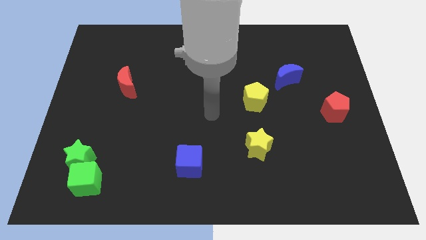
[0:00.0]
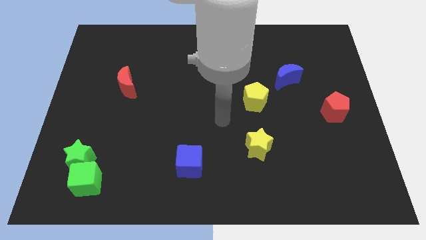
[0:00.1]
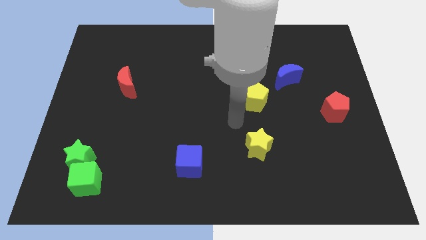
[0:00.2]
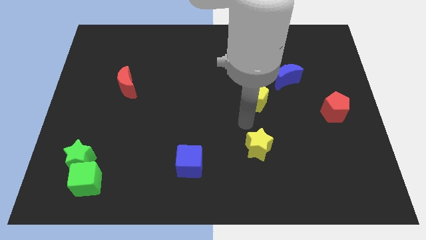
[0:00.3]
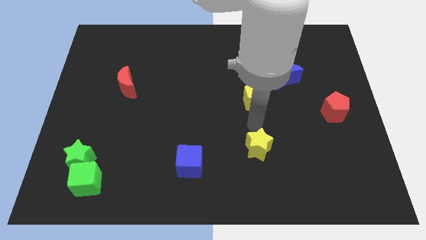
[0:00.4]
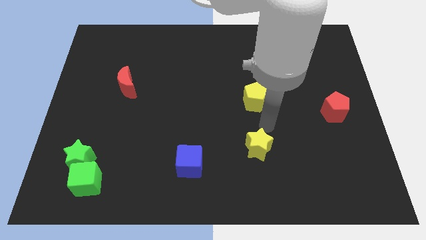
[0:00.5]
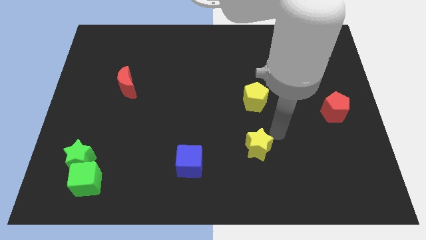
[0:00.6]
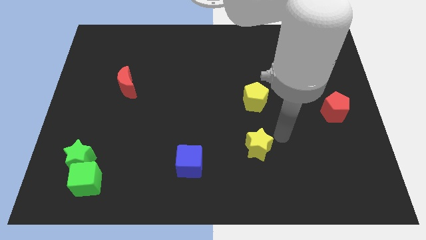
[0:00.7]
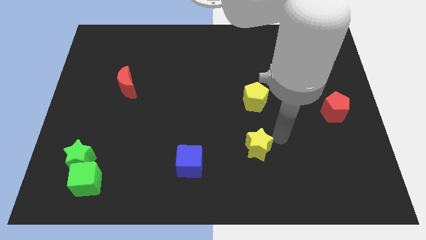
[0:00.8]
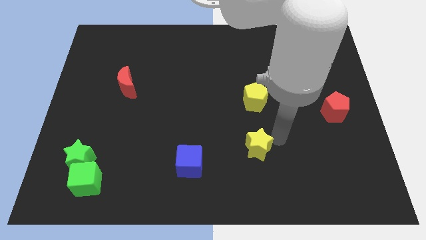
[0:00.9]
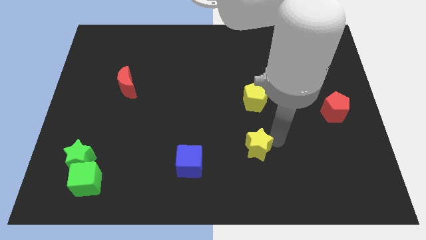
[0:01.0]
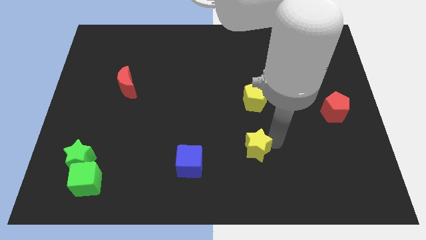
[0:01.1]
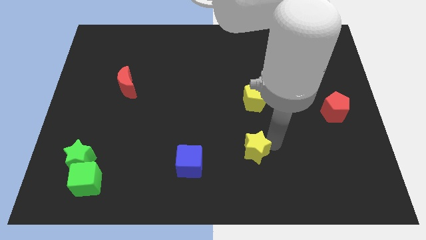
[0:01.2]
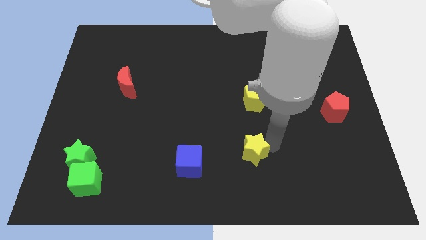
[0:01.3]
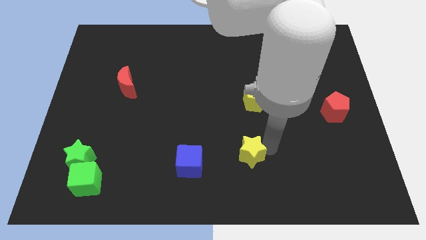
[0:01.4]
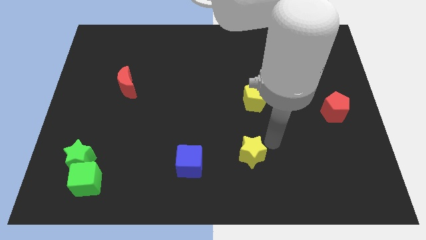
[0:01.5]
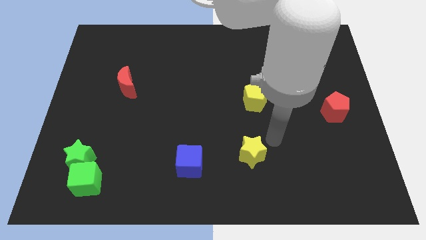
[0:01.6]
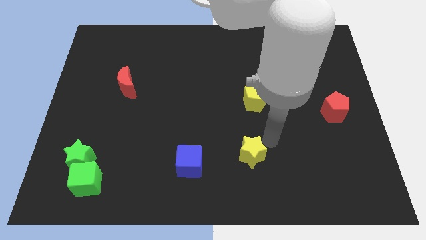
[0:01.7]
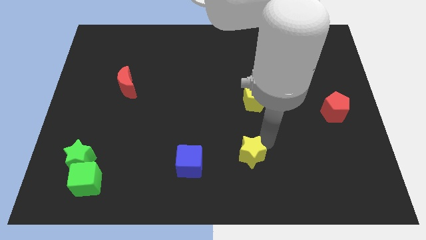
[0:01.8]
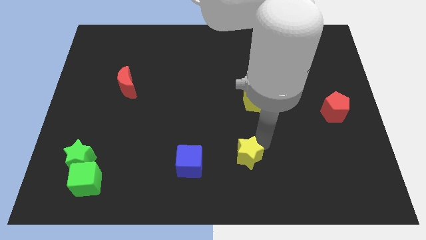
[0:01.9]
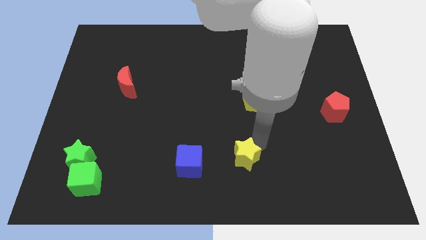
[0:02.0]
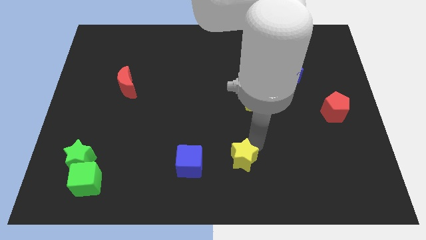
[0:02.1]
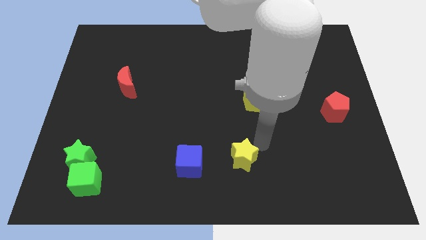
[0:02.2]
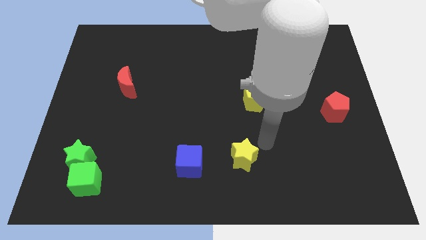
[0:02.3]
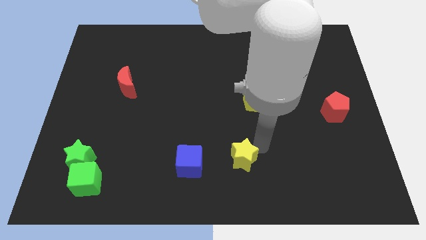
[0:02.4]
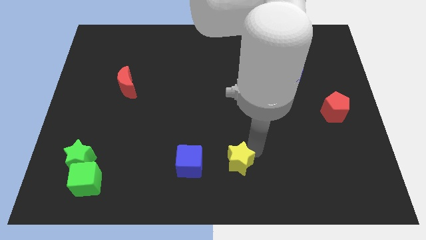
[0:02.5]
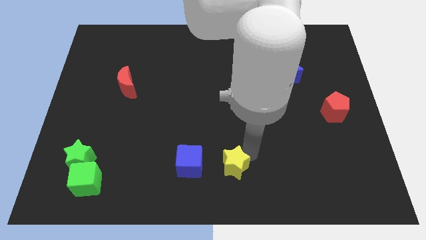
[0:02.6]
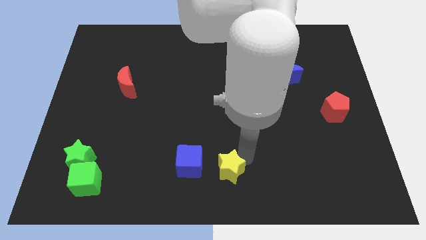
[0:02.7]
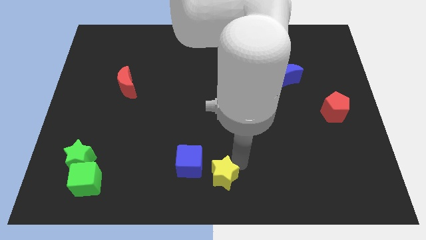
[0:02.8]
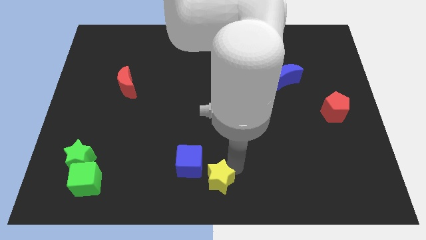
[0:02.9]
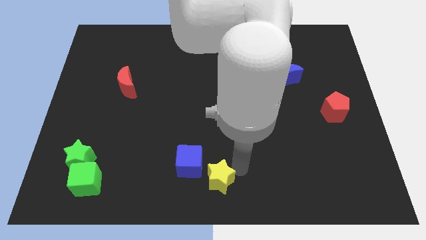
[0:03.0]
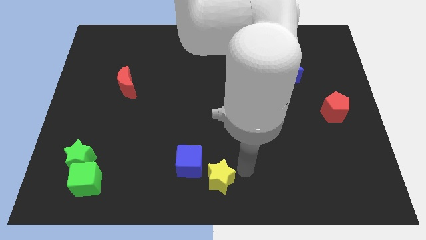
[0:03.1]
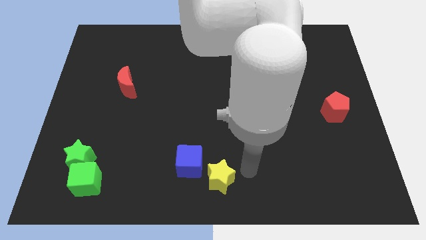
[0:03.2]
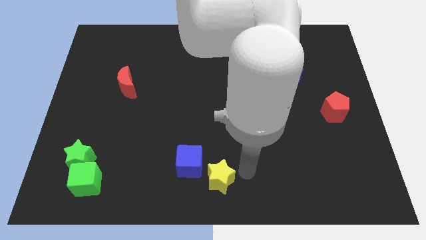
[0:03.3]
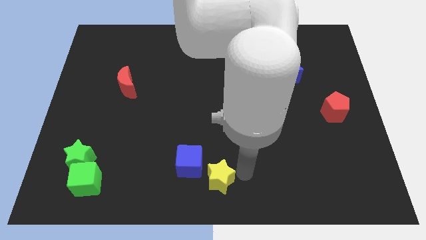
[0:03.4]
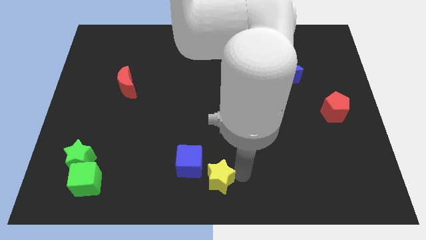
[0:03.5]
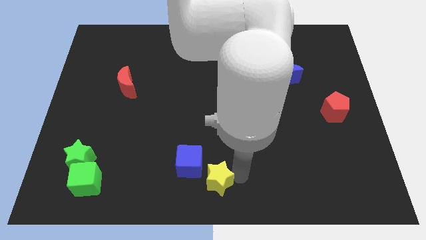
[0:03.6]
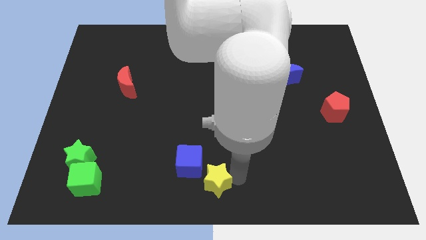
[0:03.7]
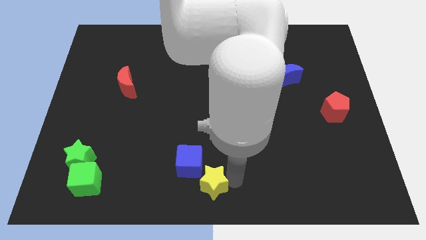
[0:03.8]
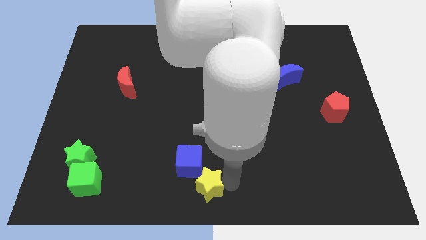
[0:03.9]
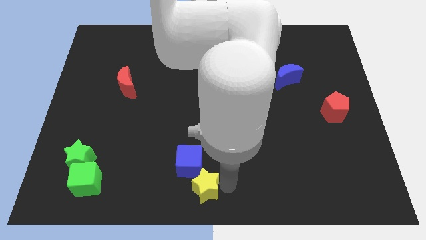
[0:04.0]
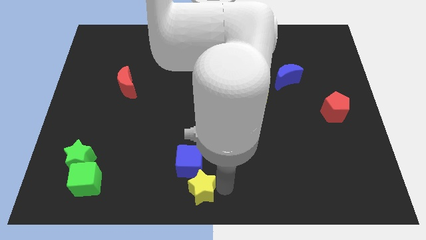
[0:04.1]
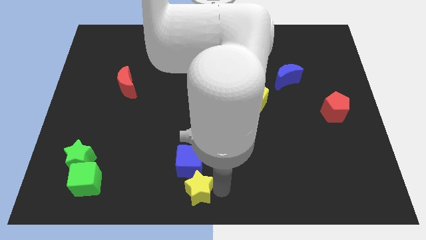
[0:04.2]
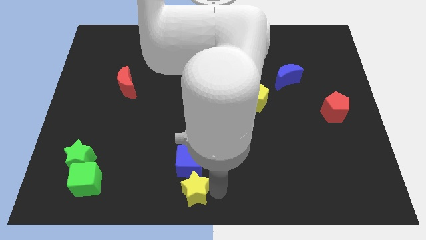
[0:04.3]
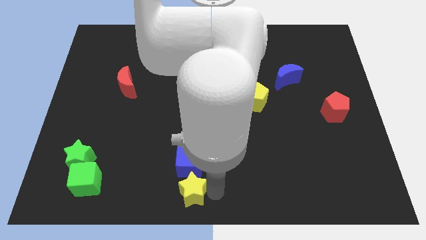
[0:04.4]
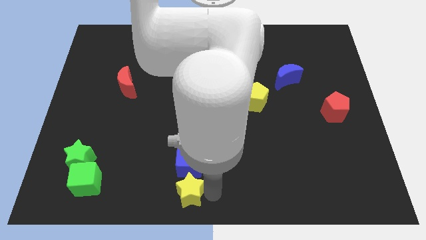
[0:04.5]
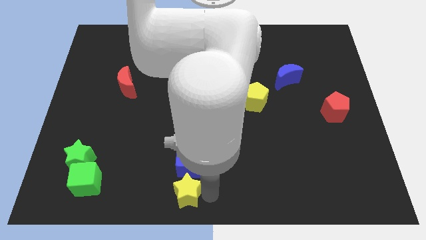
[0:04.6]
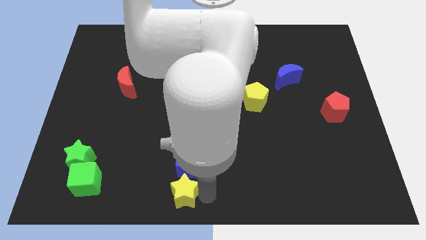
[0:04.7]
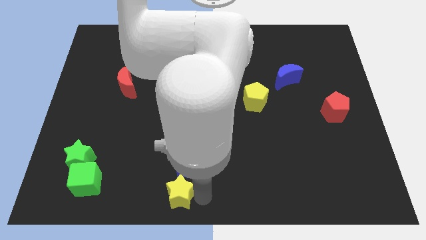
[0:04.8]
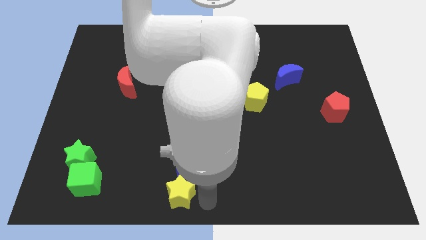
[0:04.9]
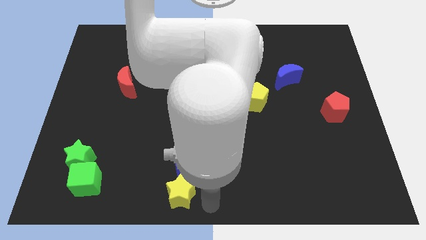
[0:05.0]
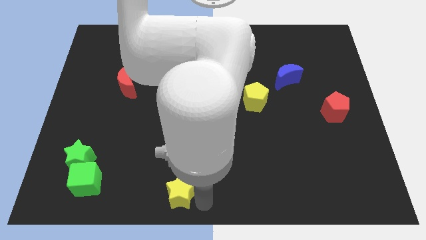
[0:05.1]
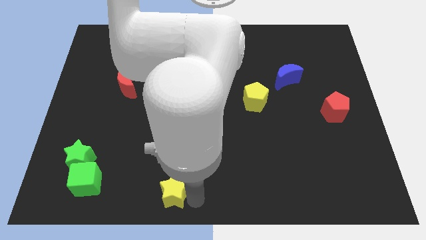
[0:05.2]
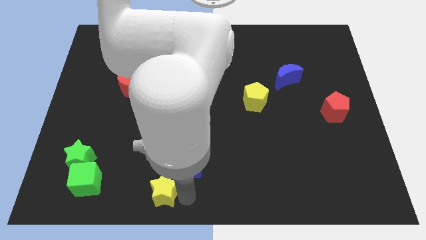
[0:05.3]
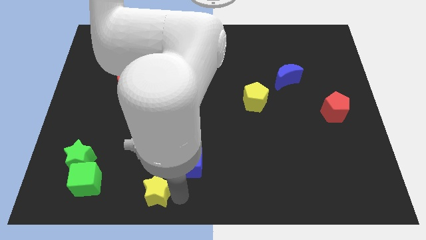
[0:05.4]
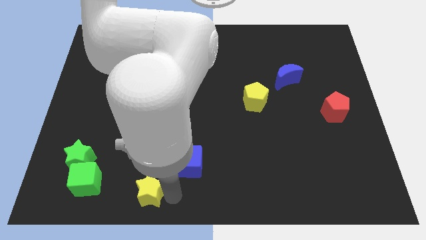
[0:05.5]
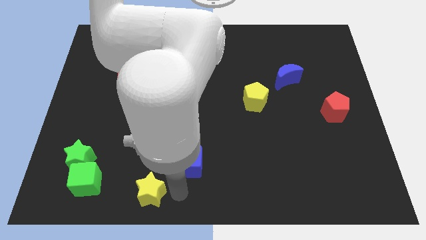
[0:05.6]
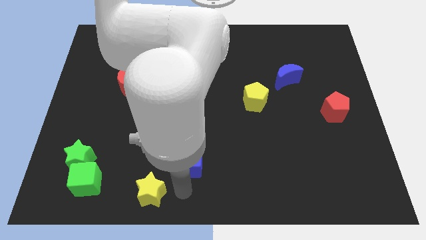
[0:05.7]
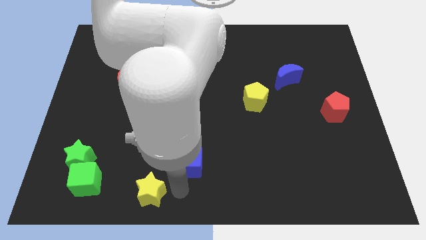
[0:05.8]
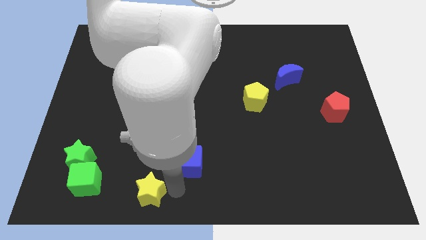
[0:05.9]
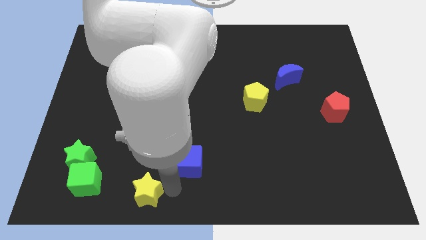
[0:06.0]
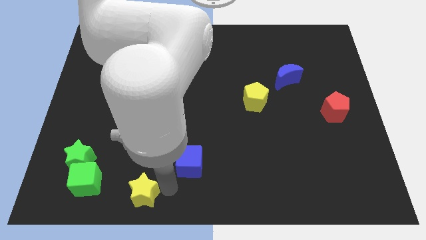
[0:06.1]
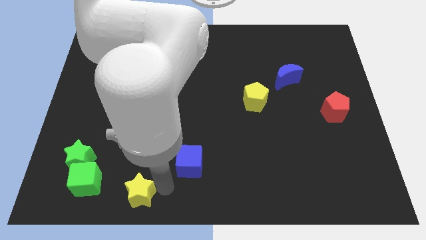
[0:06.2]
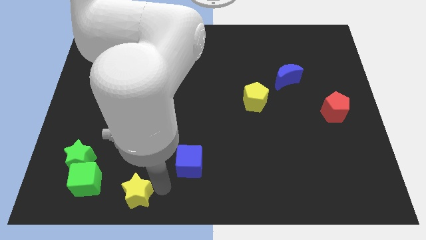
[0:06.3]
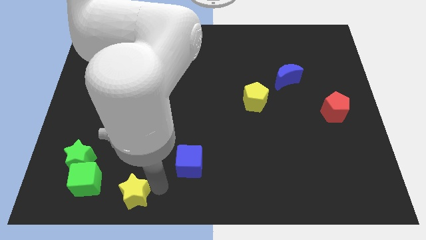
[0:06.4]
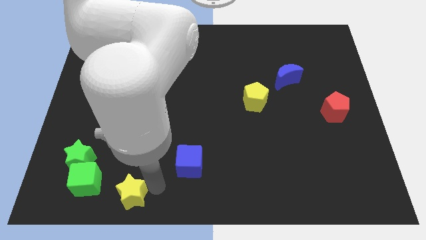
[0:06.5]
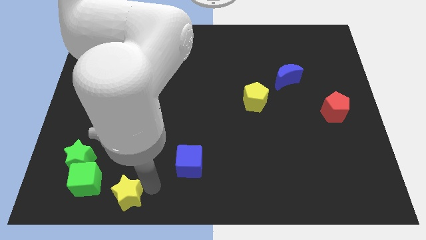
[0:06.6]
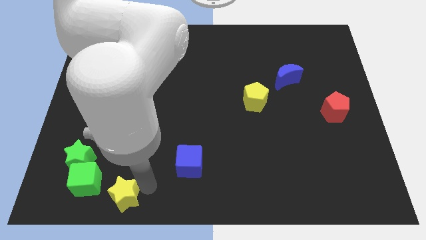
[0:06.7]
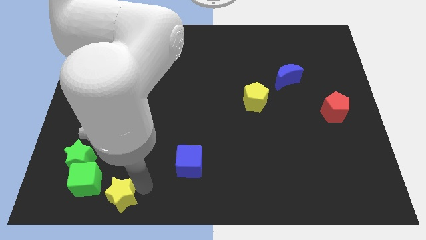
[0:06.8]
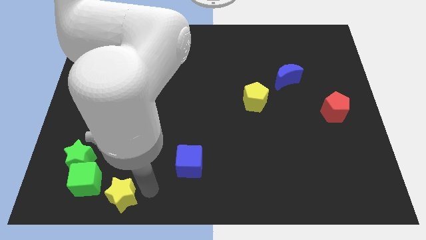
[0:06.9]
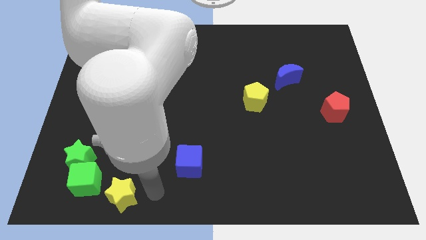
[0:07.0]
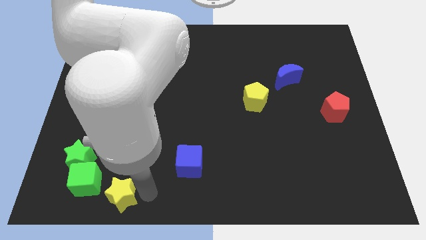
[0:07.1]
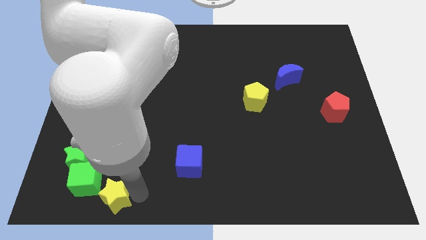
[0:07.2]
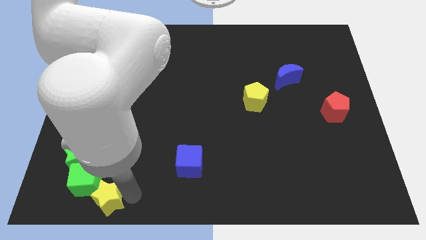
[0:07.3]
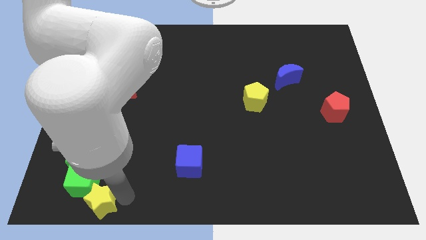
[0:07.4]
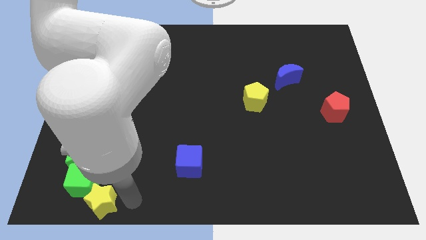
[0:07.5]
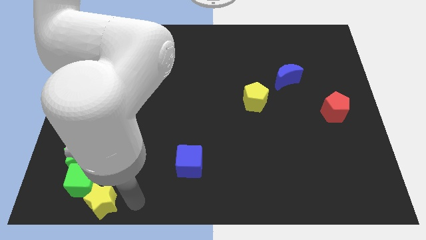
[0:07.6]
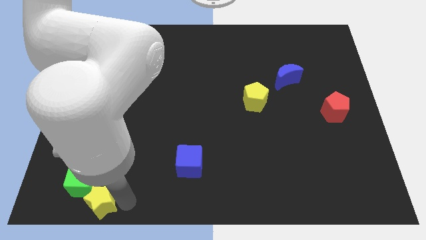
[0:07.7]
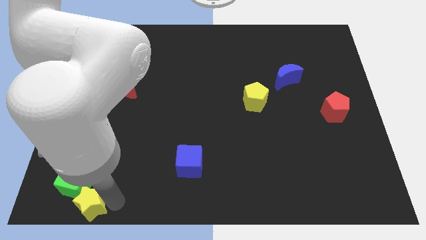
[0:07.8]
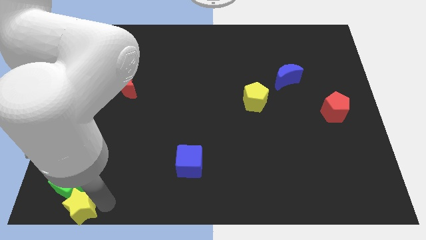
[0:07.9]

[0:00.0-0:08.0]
move the yellow star to the bottom left
